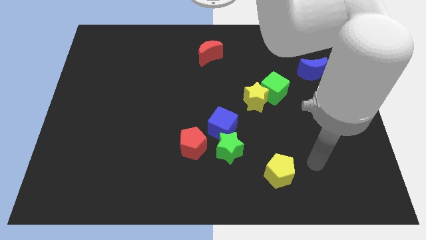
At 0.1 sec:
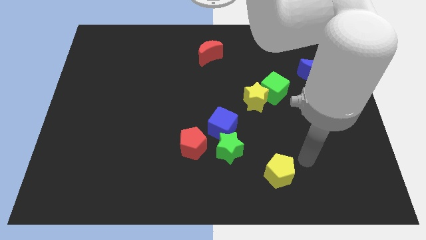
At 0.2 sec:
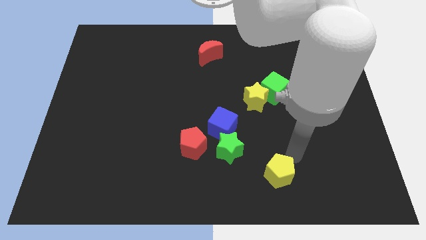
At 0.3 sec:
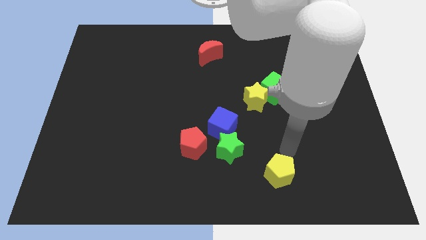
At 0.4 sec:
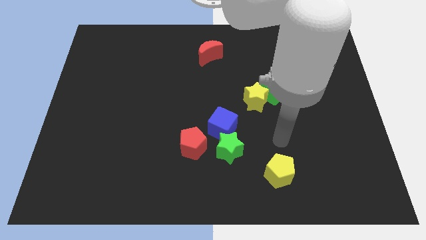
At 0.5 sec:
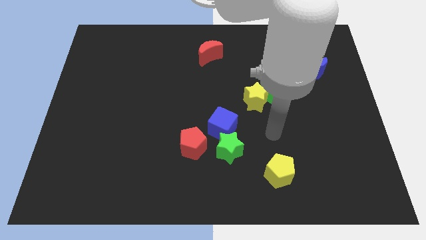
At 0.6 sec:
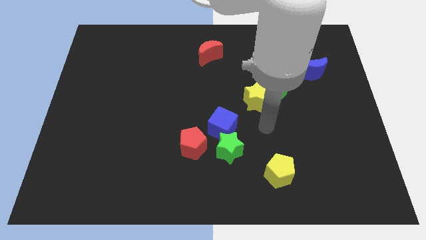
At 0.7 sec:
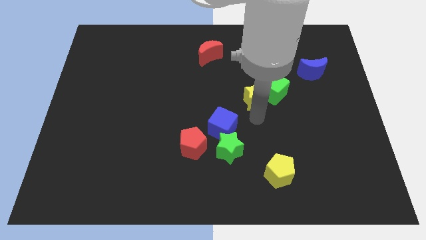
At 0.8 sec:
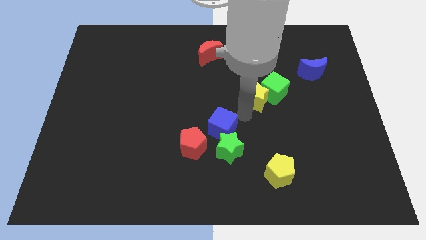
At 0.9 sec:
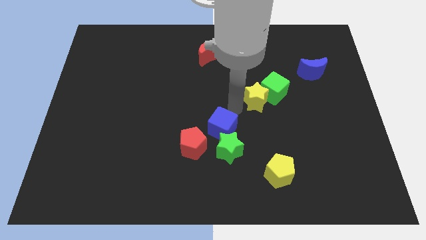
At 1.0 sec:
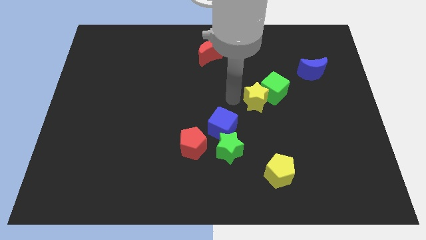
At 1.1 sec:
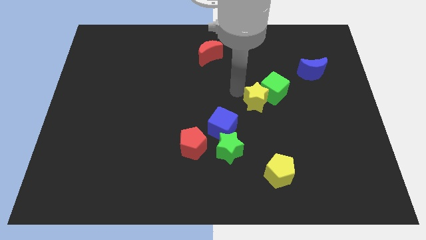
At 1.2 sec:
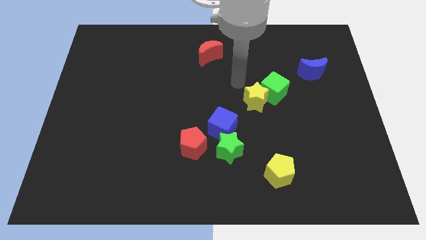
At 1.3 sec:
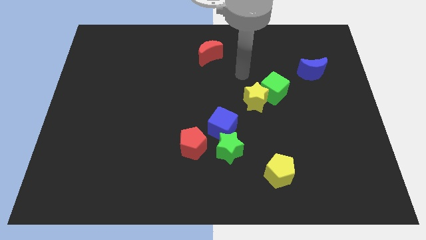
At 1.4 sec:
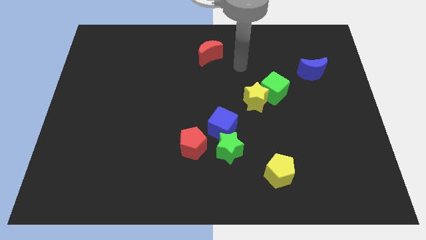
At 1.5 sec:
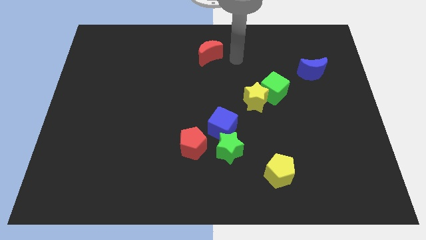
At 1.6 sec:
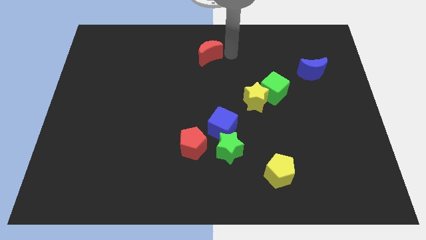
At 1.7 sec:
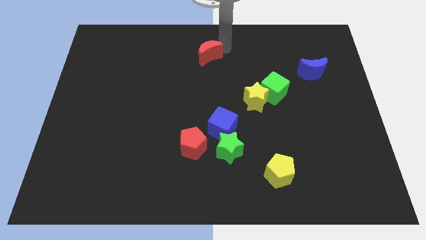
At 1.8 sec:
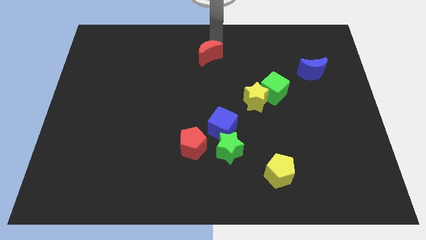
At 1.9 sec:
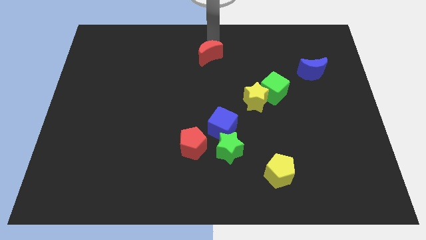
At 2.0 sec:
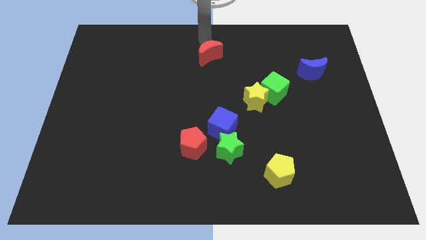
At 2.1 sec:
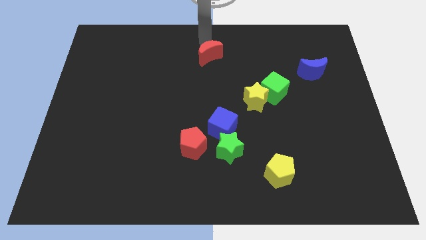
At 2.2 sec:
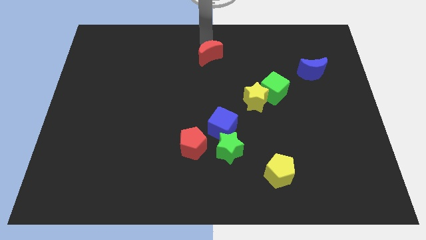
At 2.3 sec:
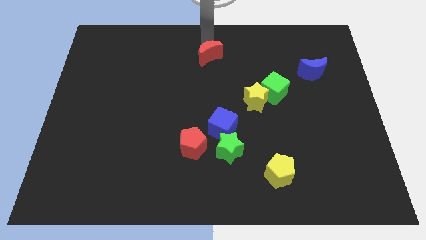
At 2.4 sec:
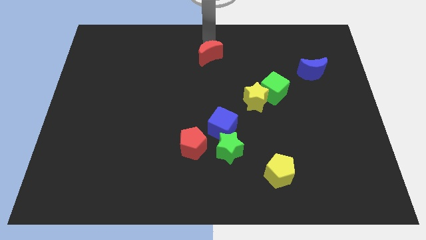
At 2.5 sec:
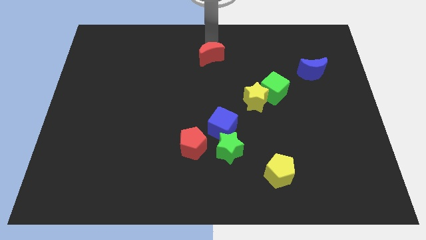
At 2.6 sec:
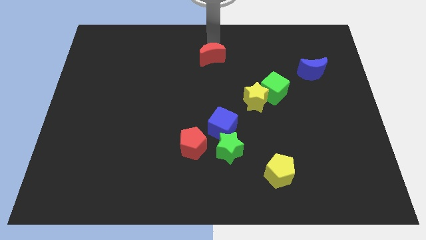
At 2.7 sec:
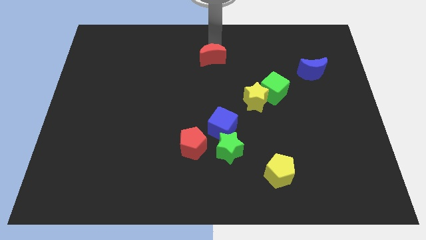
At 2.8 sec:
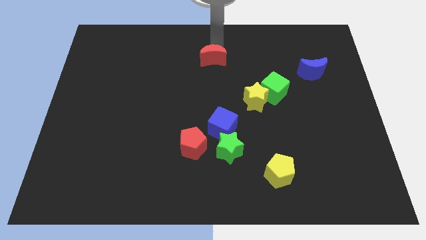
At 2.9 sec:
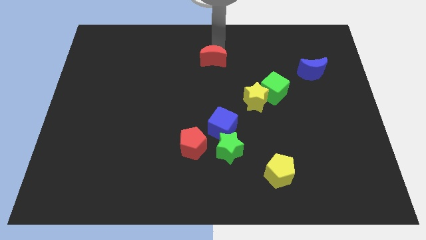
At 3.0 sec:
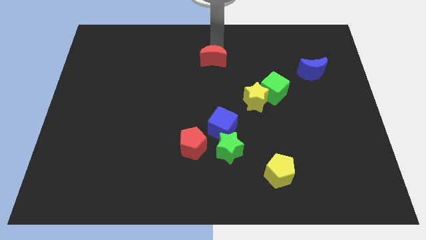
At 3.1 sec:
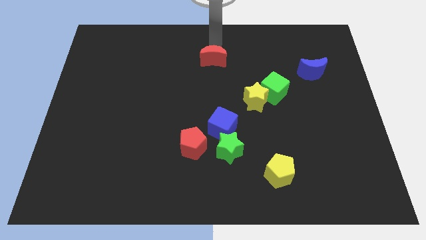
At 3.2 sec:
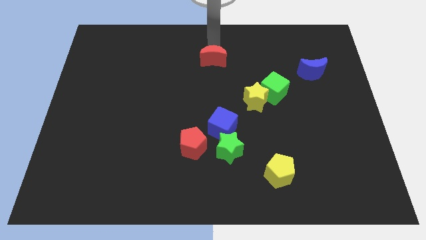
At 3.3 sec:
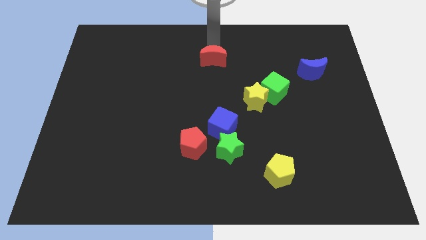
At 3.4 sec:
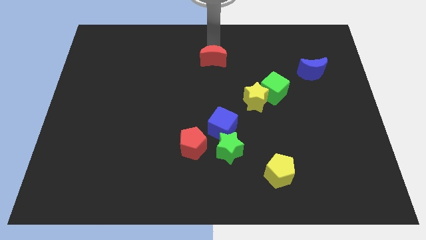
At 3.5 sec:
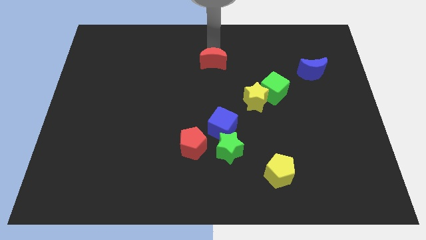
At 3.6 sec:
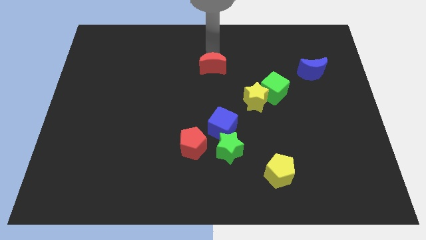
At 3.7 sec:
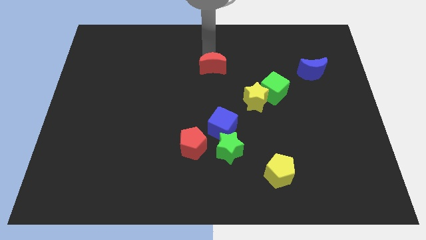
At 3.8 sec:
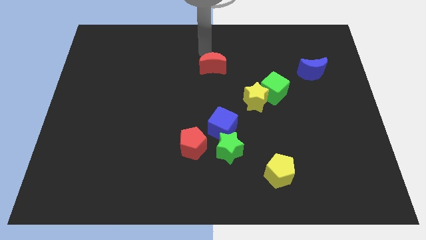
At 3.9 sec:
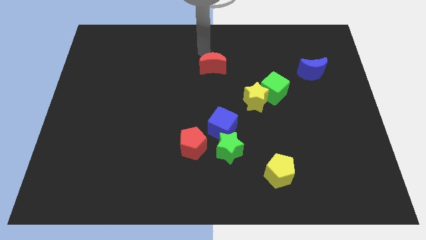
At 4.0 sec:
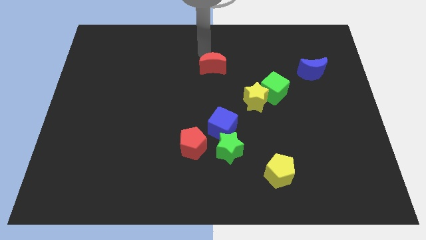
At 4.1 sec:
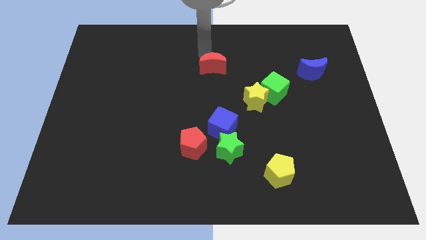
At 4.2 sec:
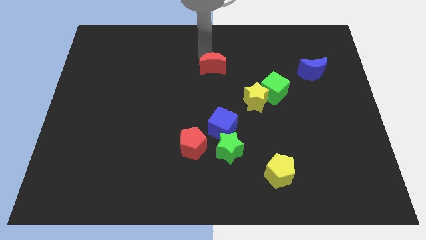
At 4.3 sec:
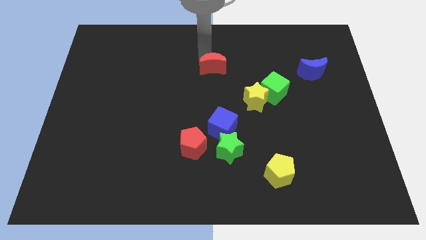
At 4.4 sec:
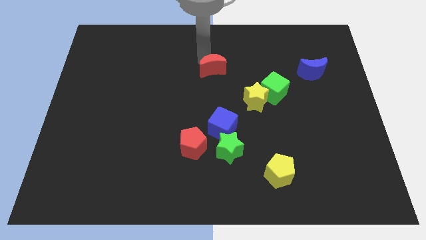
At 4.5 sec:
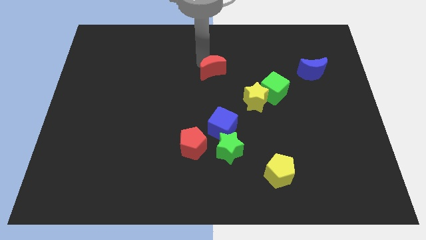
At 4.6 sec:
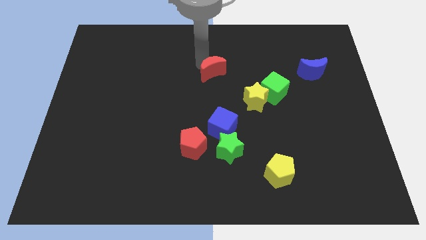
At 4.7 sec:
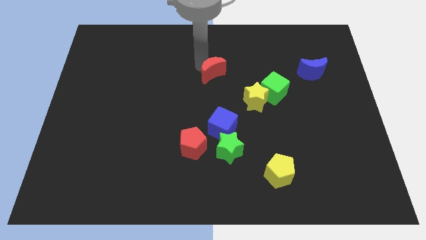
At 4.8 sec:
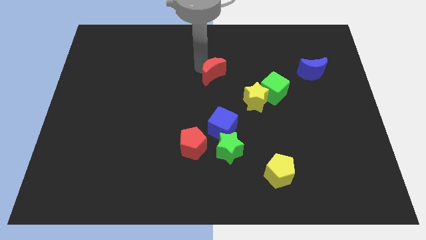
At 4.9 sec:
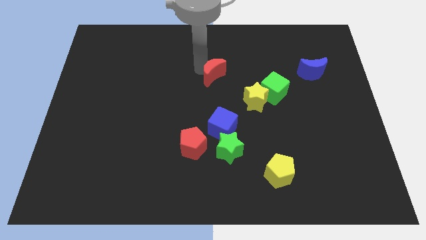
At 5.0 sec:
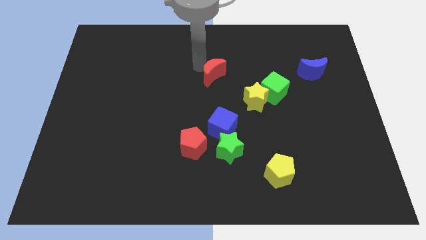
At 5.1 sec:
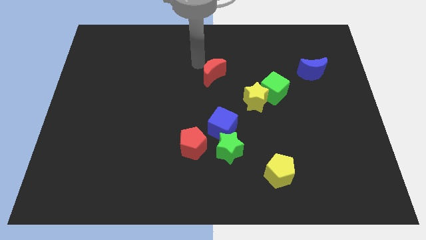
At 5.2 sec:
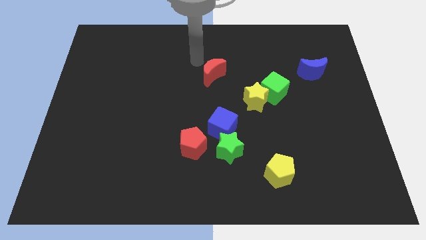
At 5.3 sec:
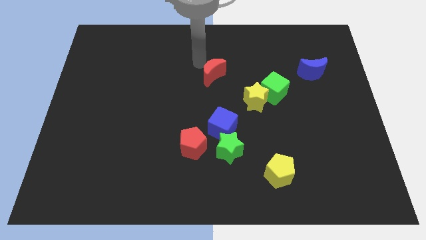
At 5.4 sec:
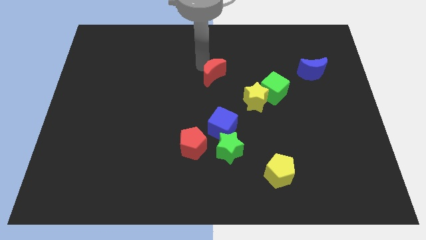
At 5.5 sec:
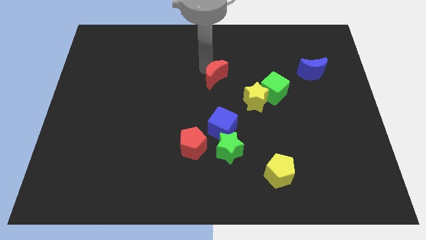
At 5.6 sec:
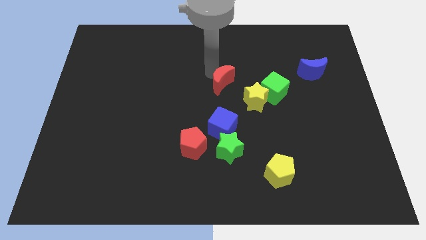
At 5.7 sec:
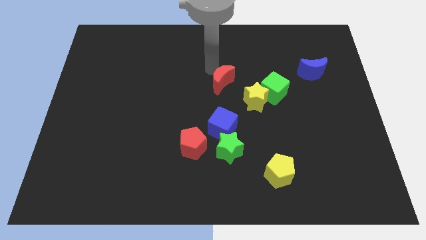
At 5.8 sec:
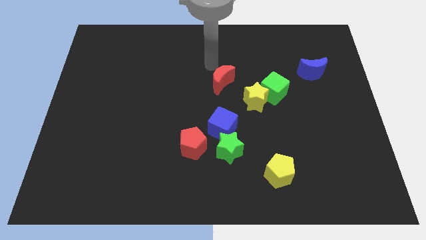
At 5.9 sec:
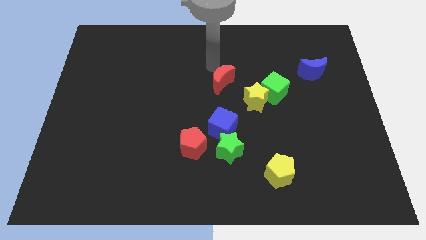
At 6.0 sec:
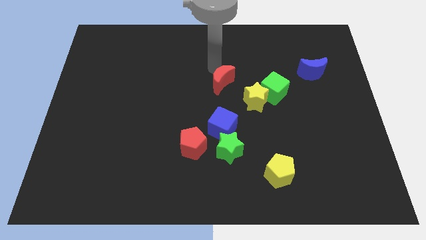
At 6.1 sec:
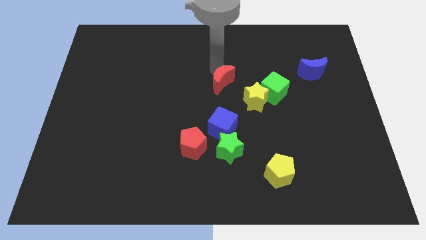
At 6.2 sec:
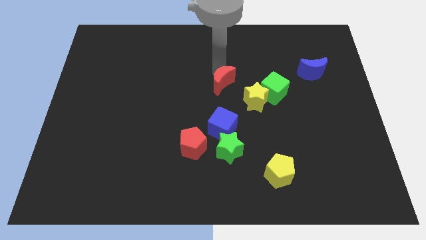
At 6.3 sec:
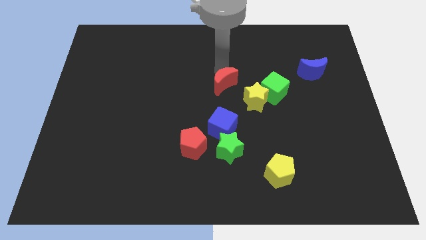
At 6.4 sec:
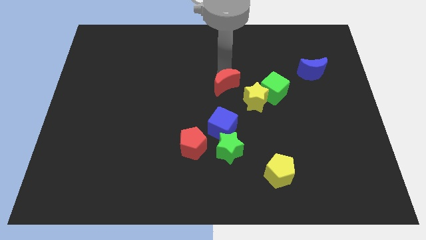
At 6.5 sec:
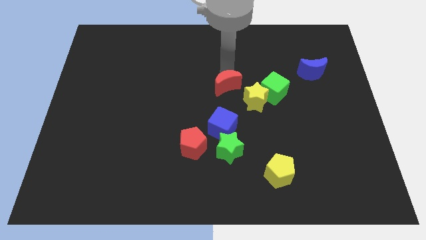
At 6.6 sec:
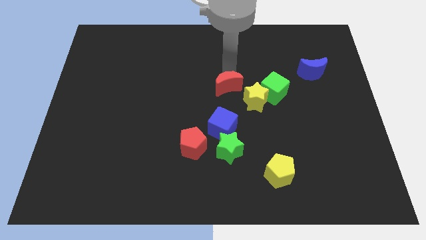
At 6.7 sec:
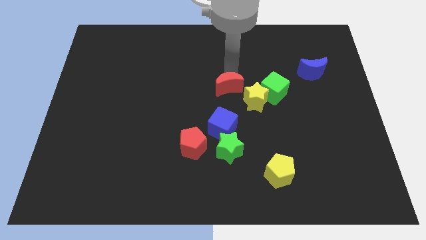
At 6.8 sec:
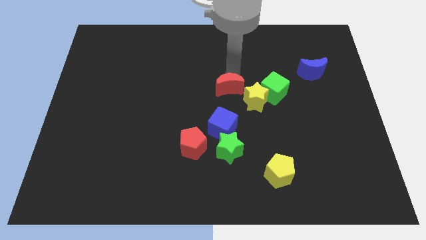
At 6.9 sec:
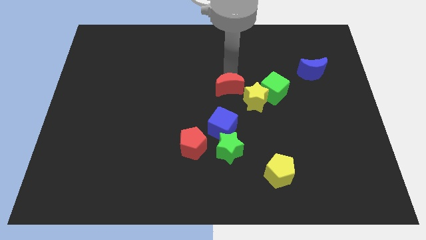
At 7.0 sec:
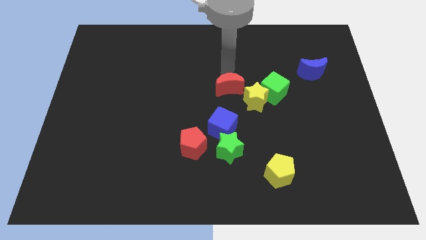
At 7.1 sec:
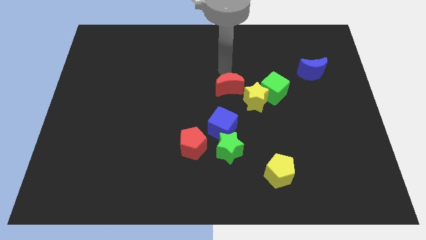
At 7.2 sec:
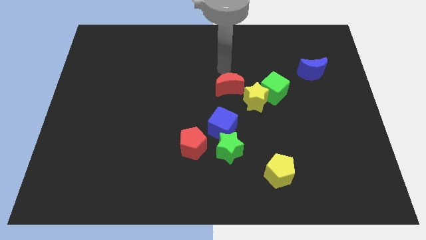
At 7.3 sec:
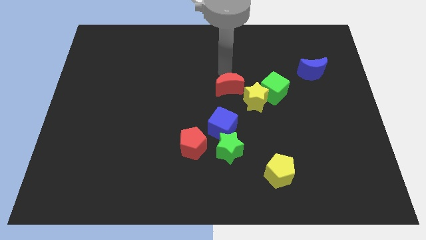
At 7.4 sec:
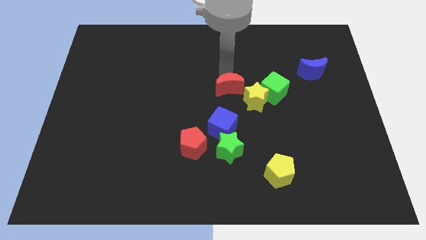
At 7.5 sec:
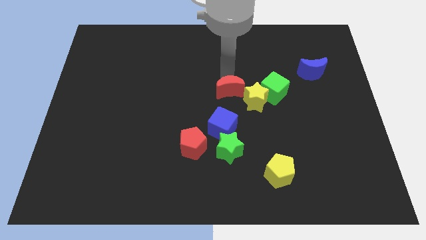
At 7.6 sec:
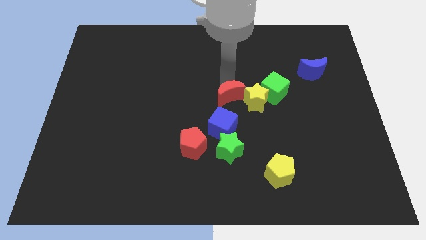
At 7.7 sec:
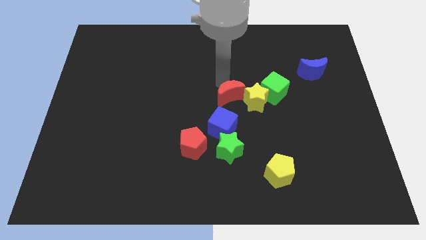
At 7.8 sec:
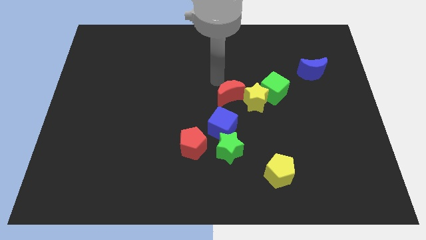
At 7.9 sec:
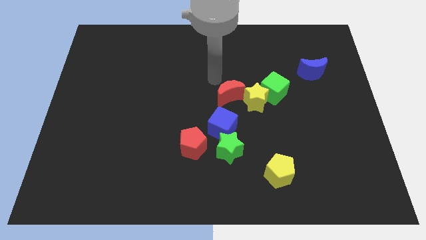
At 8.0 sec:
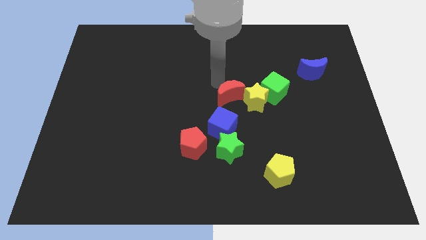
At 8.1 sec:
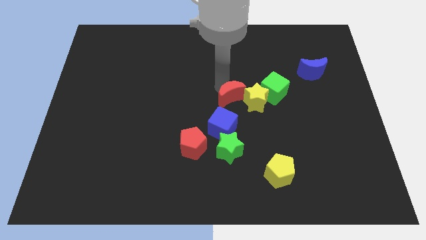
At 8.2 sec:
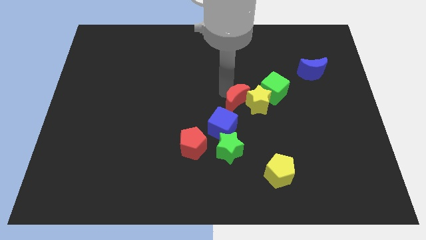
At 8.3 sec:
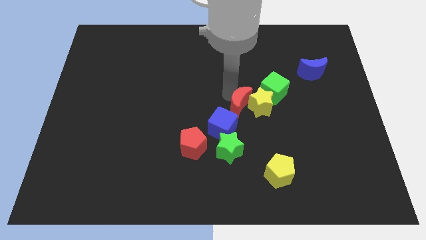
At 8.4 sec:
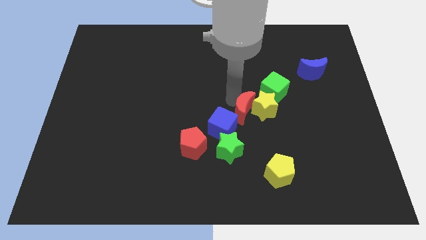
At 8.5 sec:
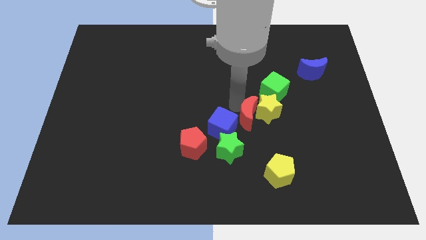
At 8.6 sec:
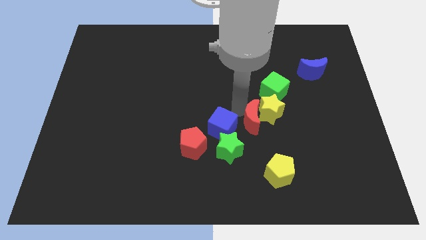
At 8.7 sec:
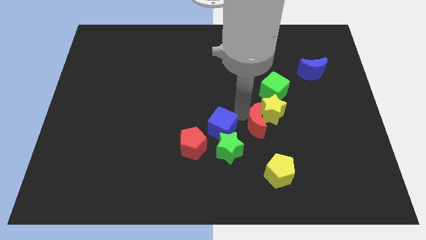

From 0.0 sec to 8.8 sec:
move the red moon diagonally down and right
